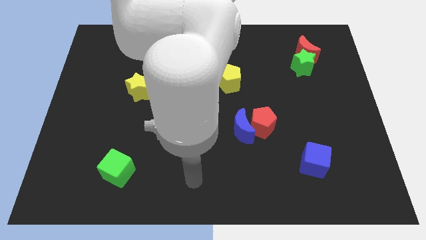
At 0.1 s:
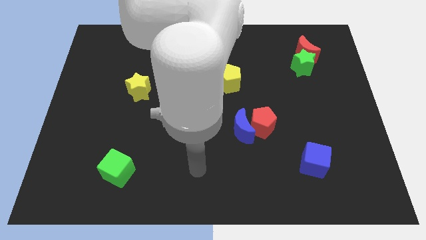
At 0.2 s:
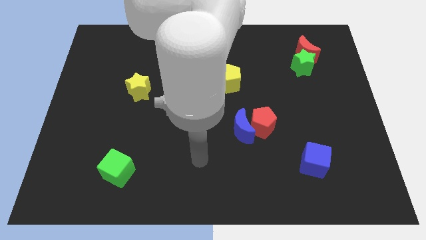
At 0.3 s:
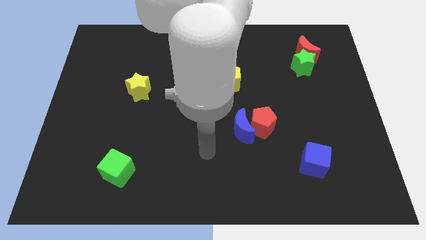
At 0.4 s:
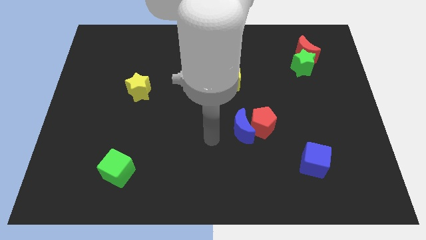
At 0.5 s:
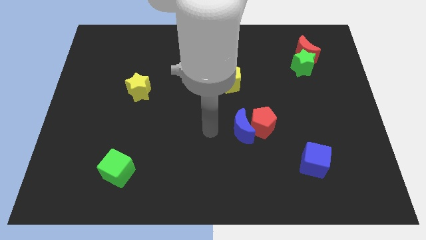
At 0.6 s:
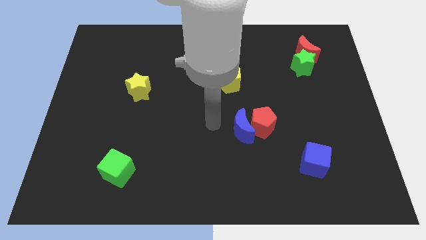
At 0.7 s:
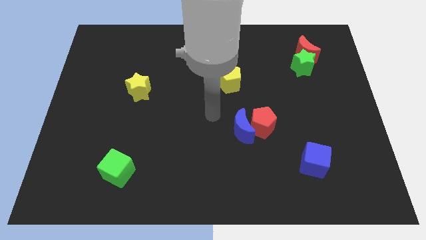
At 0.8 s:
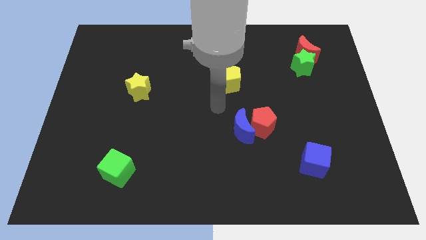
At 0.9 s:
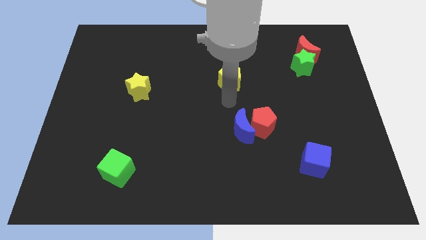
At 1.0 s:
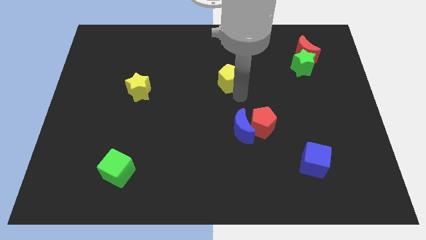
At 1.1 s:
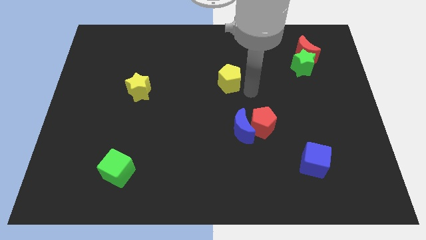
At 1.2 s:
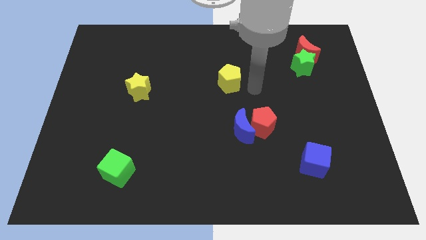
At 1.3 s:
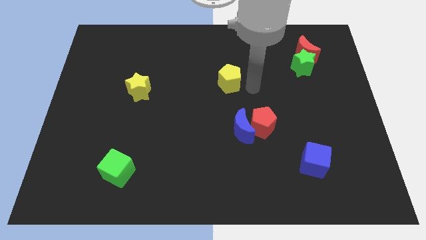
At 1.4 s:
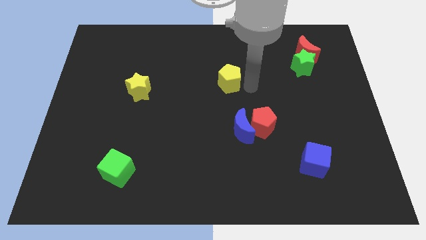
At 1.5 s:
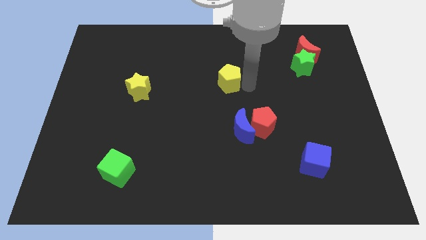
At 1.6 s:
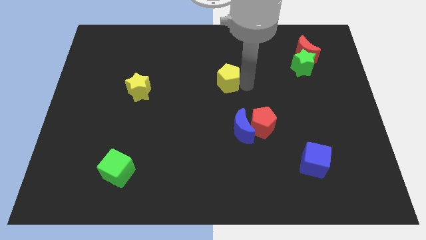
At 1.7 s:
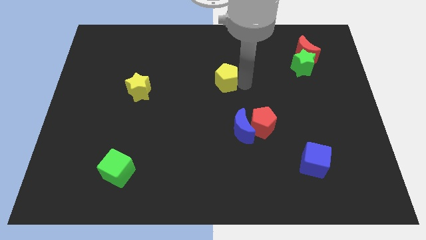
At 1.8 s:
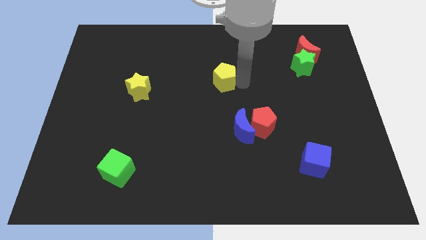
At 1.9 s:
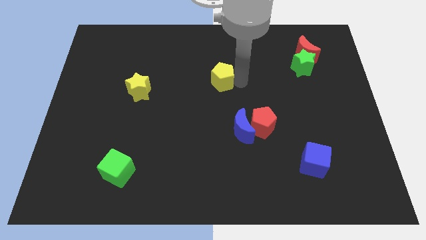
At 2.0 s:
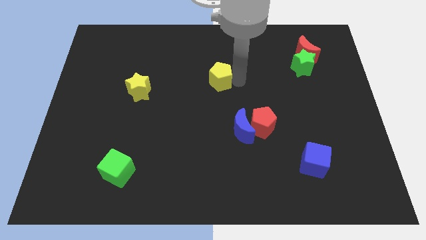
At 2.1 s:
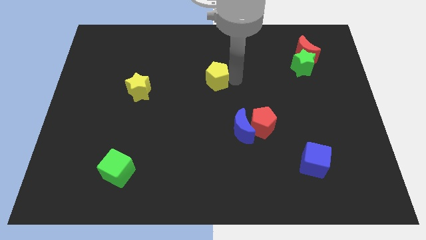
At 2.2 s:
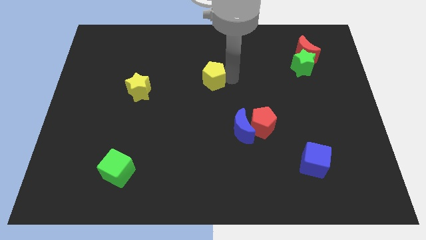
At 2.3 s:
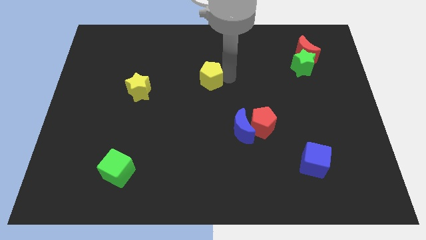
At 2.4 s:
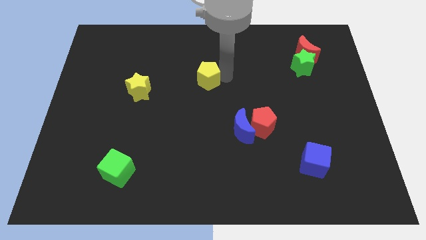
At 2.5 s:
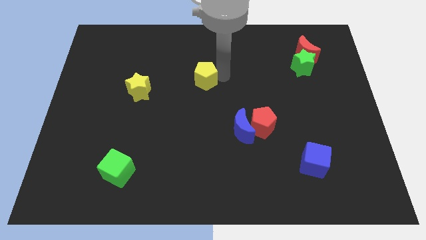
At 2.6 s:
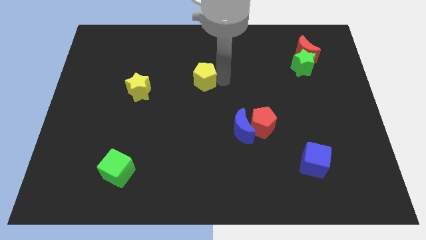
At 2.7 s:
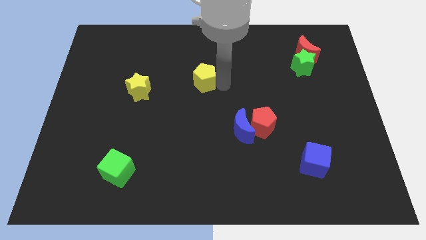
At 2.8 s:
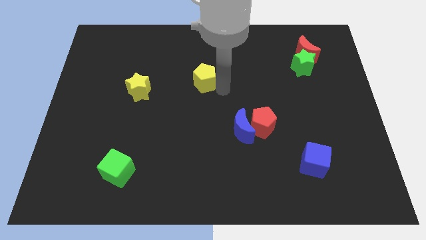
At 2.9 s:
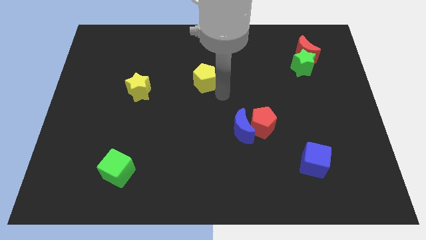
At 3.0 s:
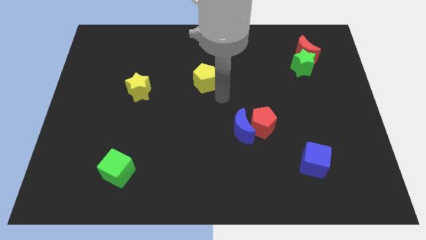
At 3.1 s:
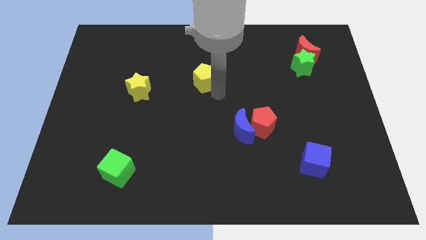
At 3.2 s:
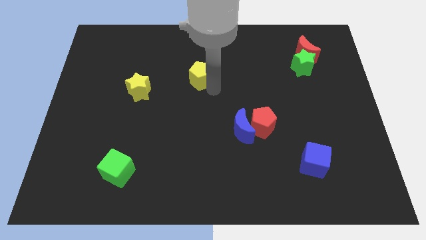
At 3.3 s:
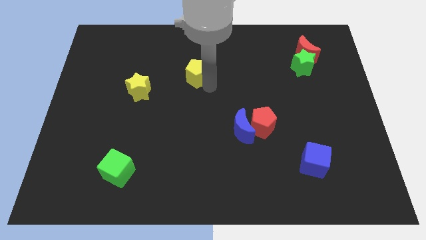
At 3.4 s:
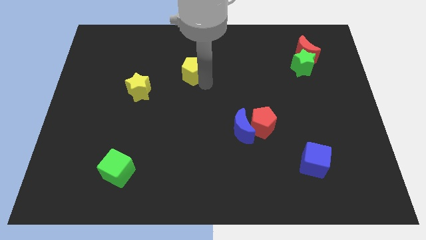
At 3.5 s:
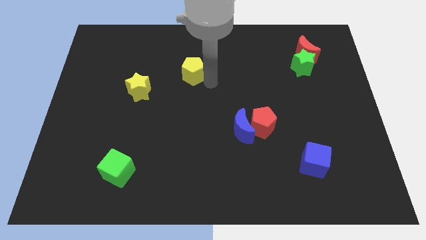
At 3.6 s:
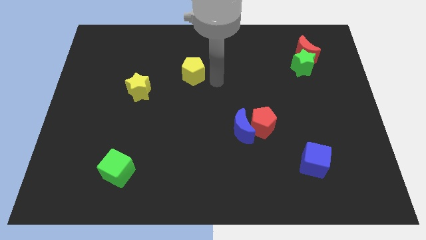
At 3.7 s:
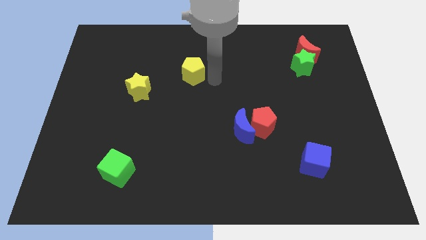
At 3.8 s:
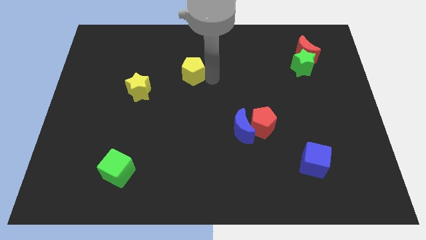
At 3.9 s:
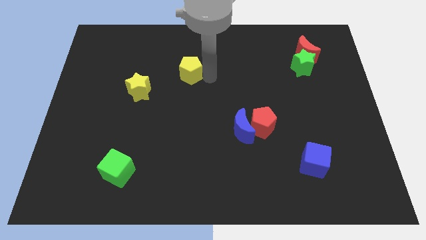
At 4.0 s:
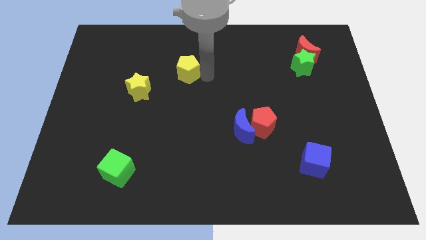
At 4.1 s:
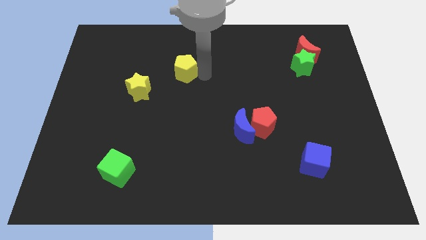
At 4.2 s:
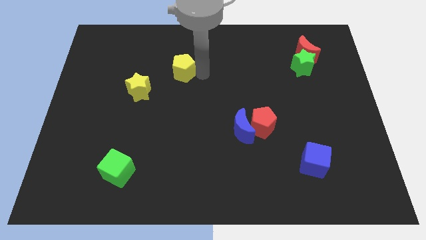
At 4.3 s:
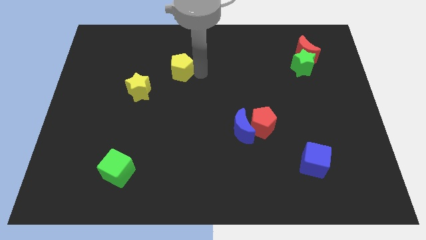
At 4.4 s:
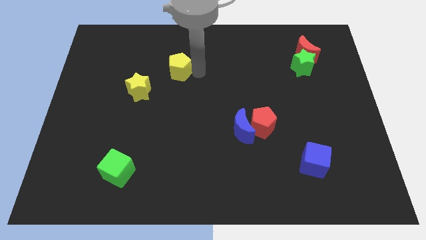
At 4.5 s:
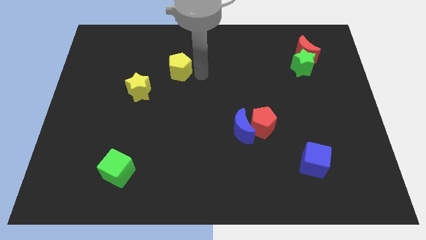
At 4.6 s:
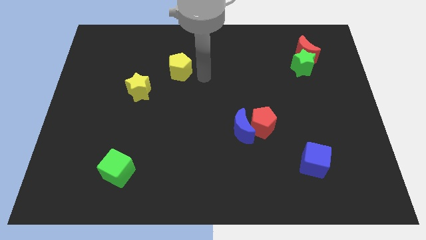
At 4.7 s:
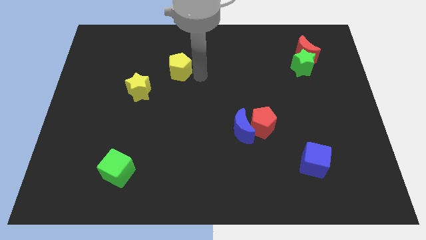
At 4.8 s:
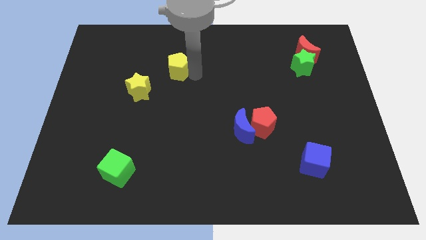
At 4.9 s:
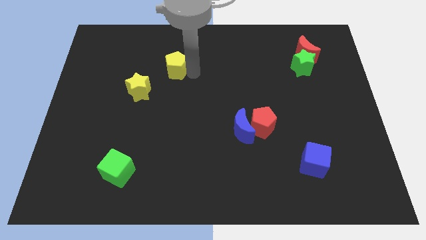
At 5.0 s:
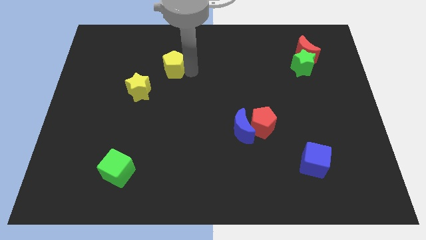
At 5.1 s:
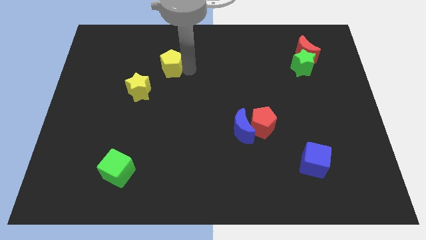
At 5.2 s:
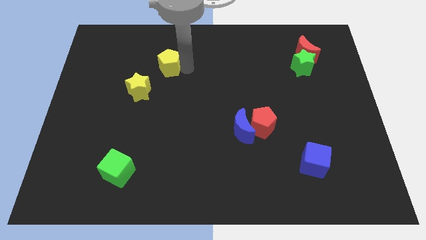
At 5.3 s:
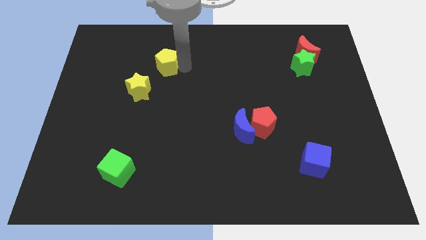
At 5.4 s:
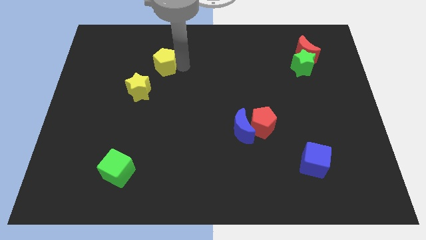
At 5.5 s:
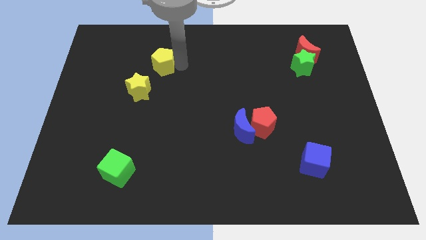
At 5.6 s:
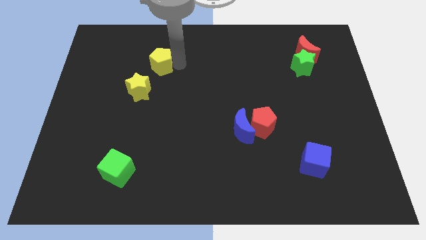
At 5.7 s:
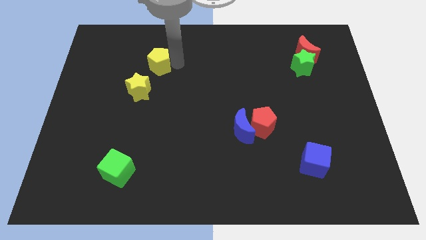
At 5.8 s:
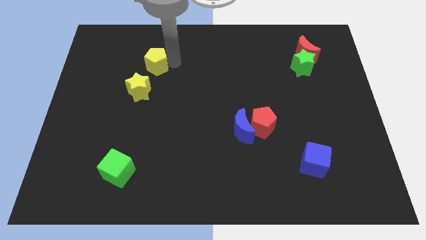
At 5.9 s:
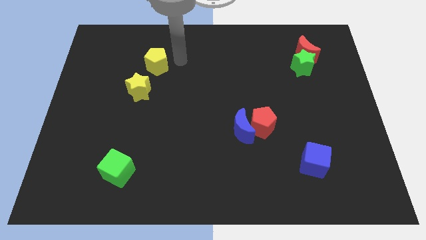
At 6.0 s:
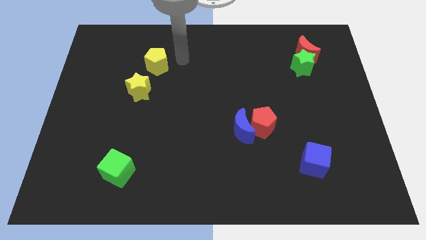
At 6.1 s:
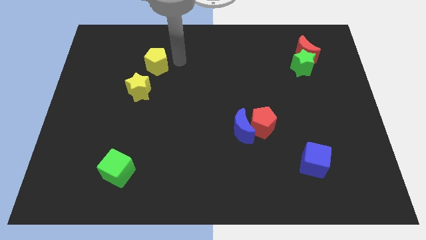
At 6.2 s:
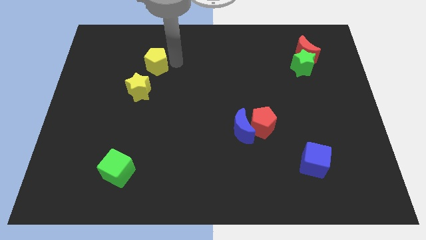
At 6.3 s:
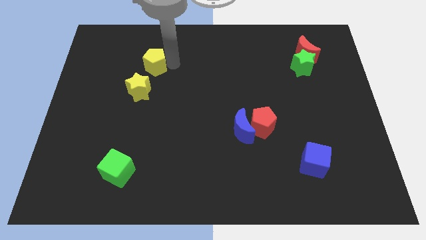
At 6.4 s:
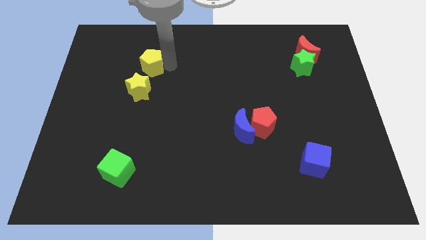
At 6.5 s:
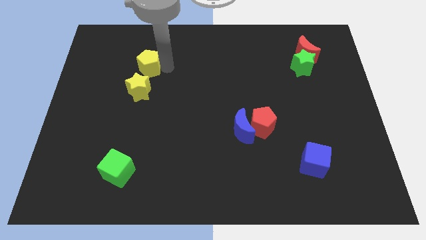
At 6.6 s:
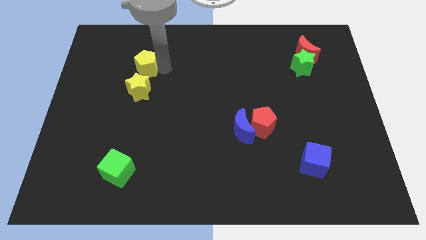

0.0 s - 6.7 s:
move the yellow pentagon left

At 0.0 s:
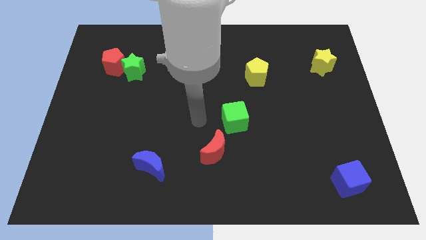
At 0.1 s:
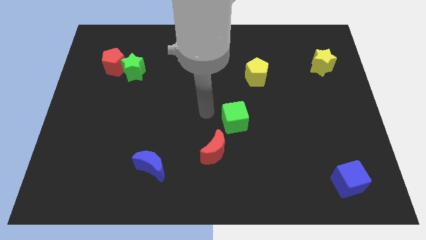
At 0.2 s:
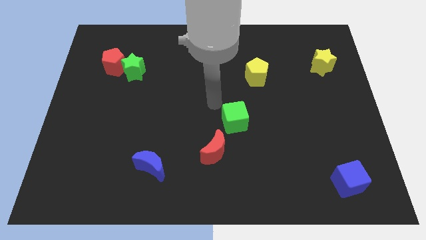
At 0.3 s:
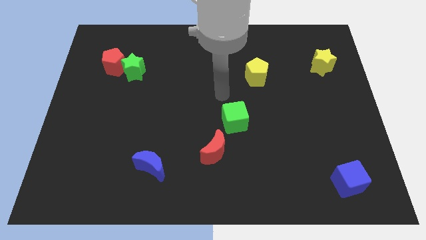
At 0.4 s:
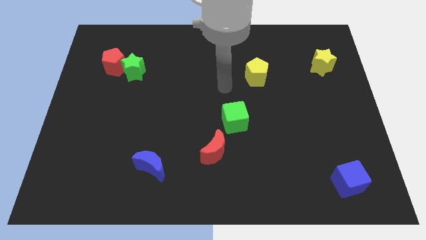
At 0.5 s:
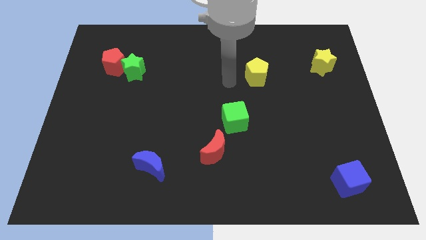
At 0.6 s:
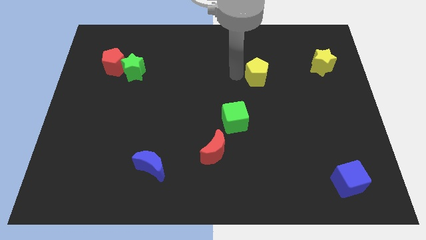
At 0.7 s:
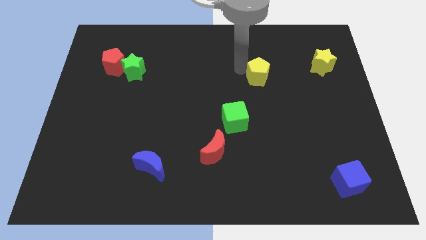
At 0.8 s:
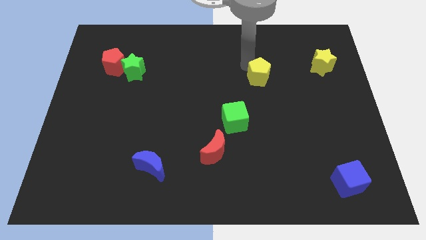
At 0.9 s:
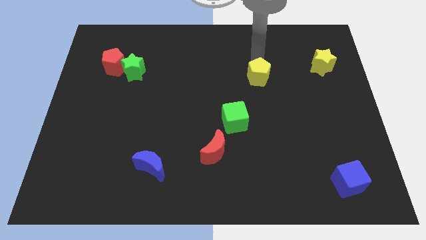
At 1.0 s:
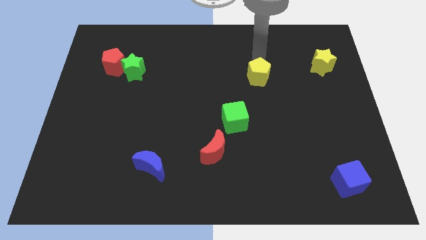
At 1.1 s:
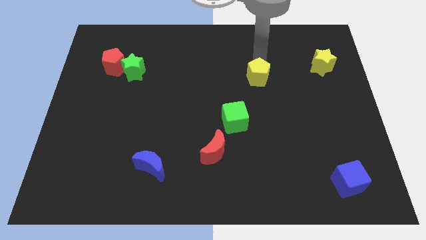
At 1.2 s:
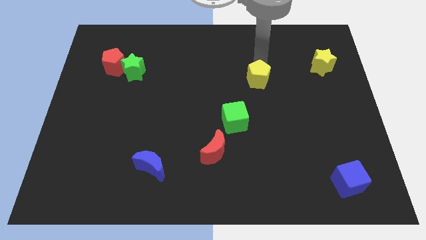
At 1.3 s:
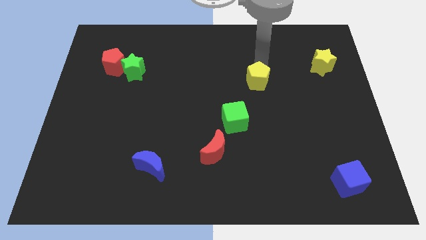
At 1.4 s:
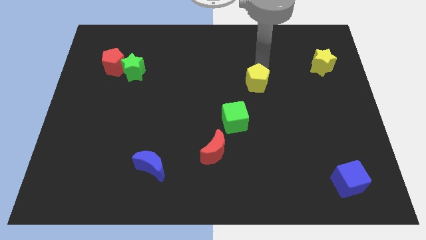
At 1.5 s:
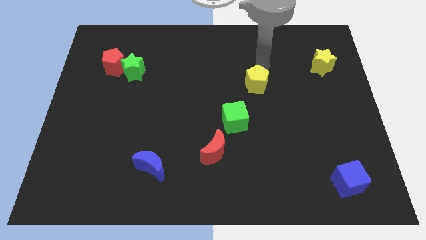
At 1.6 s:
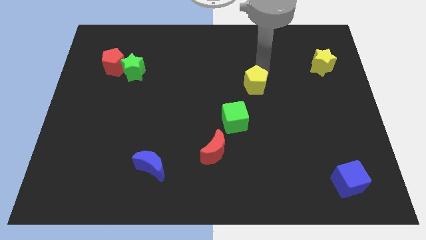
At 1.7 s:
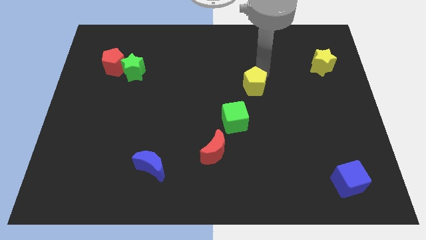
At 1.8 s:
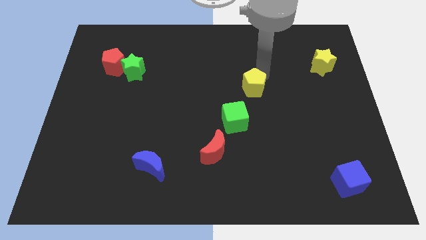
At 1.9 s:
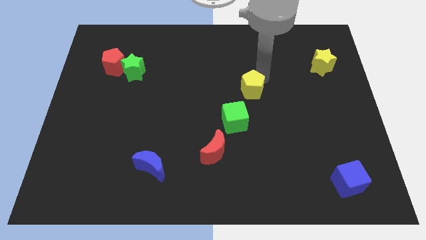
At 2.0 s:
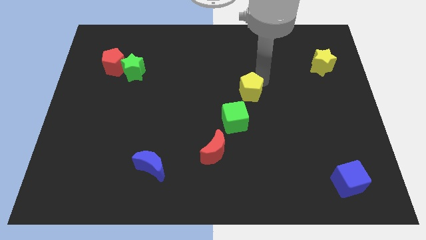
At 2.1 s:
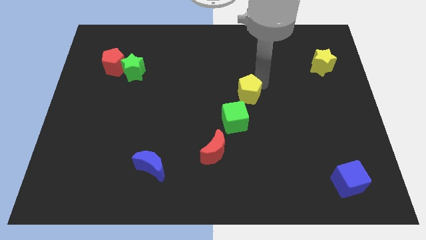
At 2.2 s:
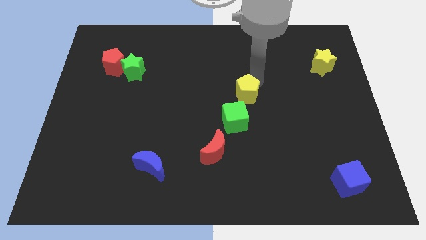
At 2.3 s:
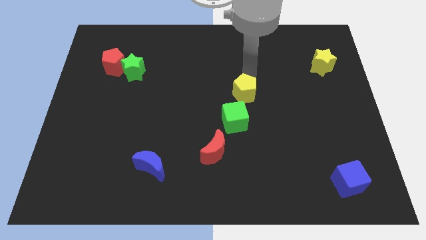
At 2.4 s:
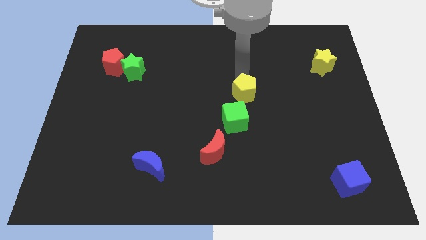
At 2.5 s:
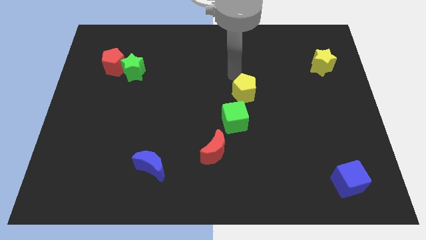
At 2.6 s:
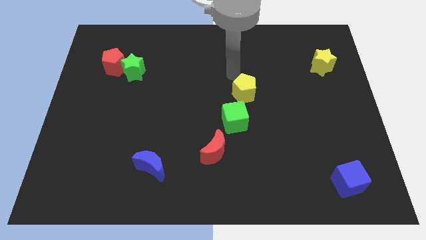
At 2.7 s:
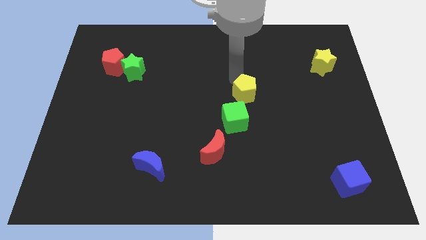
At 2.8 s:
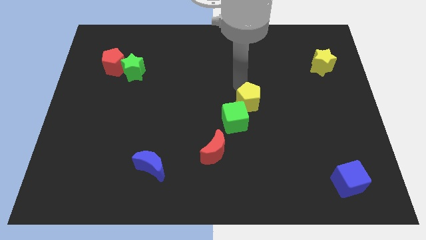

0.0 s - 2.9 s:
slightly slide the yellow pentagon down
